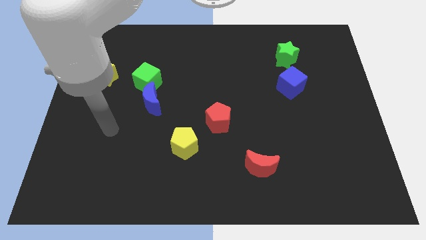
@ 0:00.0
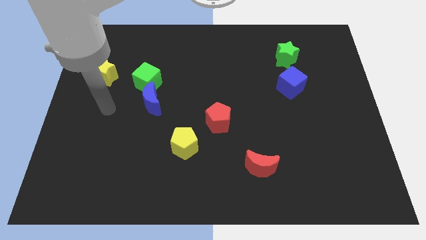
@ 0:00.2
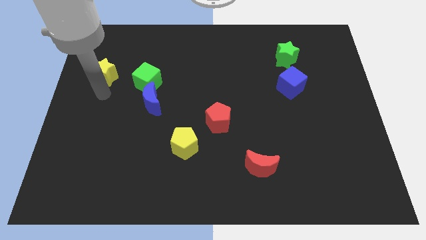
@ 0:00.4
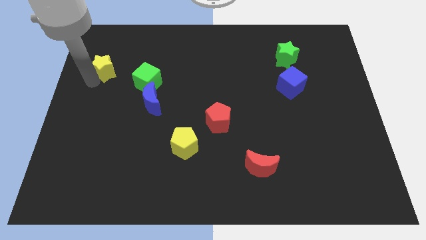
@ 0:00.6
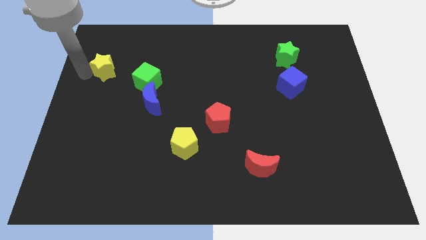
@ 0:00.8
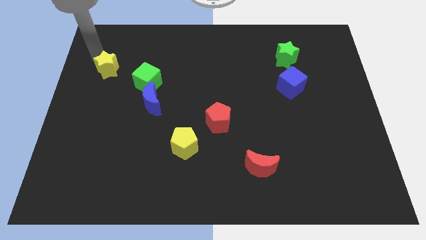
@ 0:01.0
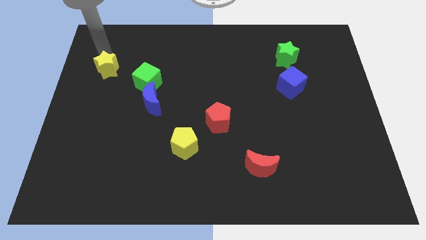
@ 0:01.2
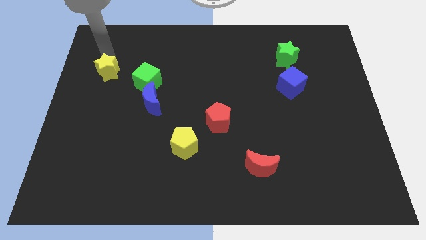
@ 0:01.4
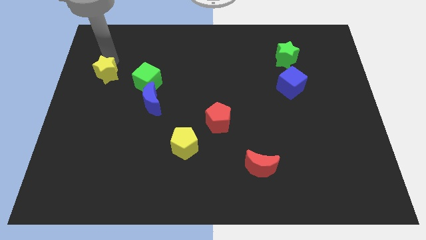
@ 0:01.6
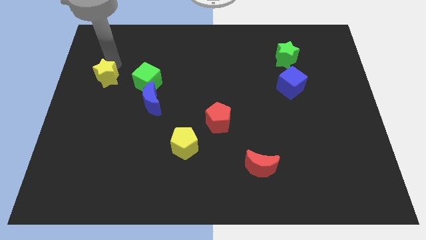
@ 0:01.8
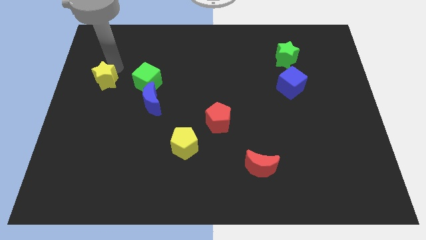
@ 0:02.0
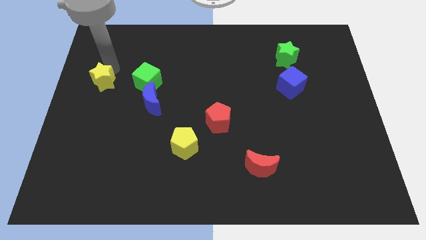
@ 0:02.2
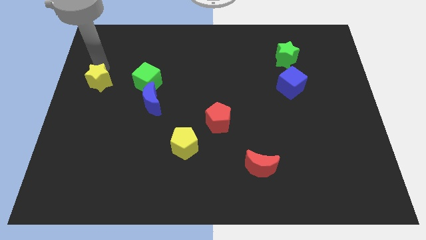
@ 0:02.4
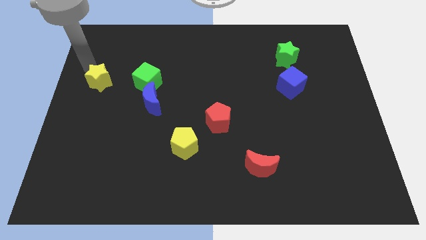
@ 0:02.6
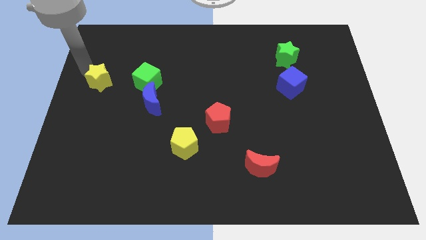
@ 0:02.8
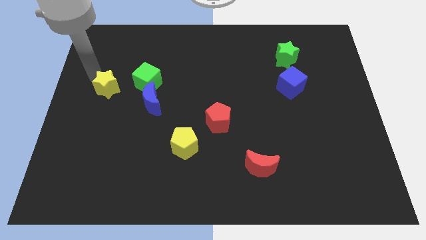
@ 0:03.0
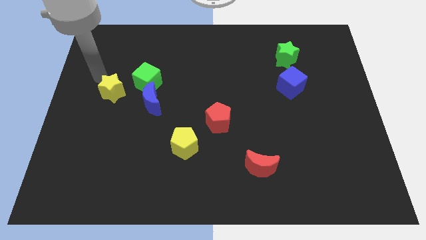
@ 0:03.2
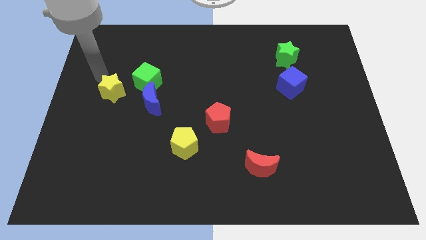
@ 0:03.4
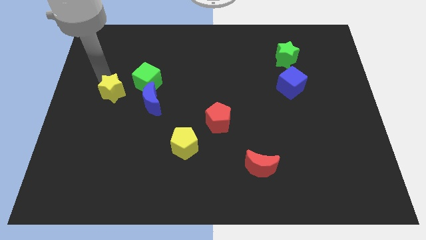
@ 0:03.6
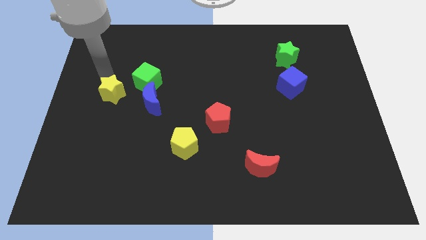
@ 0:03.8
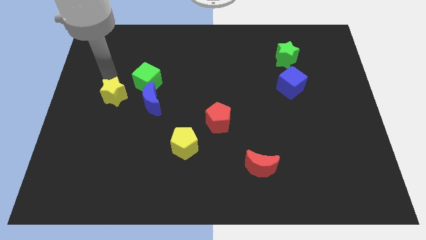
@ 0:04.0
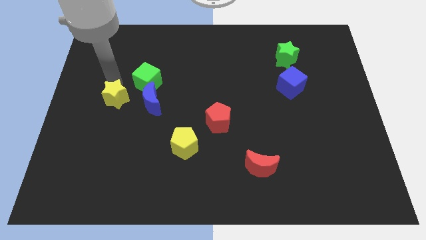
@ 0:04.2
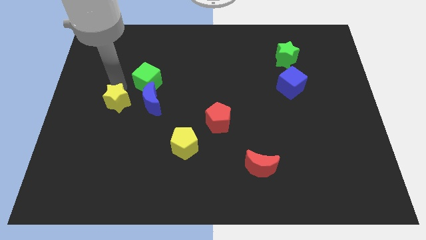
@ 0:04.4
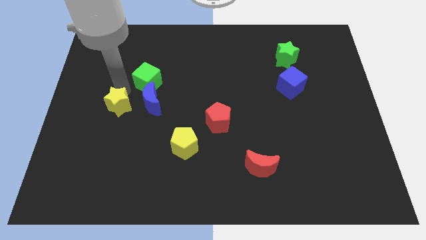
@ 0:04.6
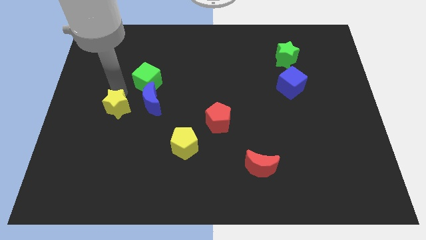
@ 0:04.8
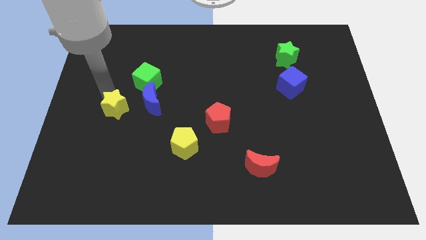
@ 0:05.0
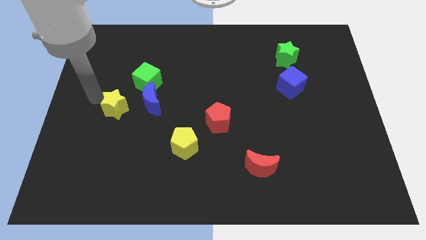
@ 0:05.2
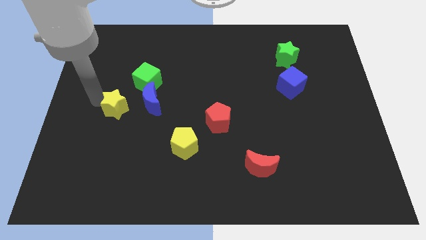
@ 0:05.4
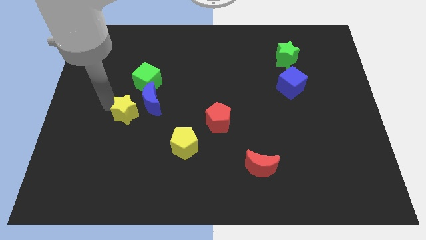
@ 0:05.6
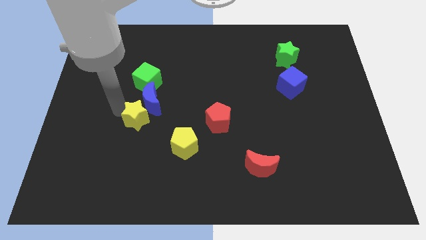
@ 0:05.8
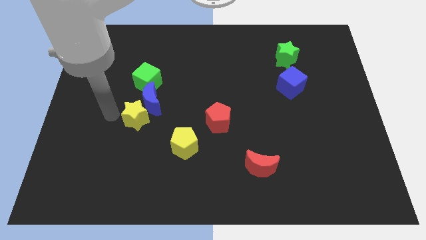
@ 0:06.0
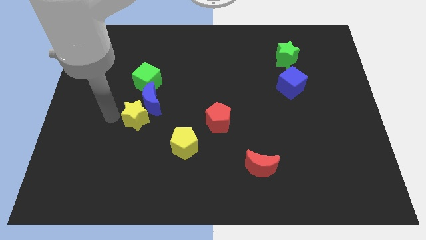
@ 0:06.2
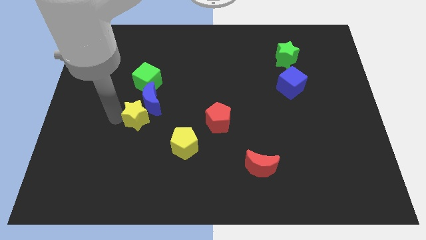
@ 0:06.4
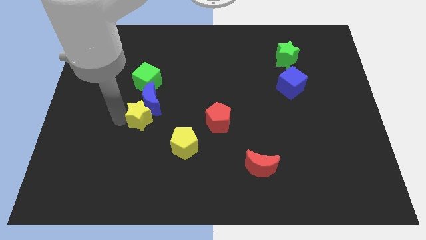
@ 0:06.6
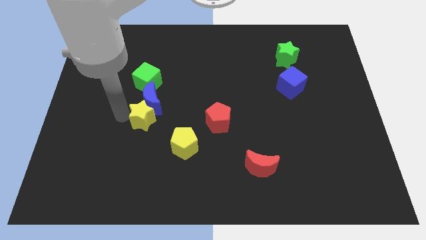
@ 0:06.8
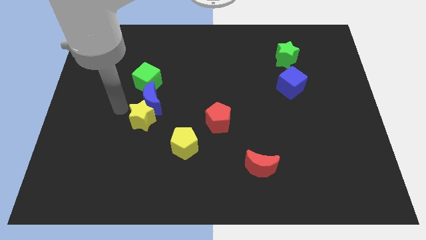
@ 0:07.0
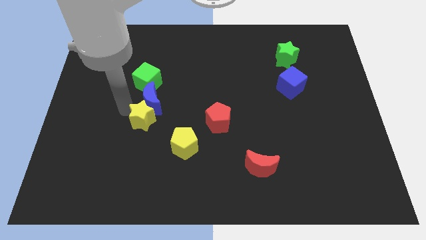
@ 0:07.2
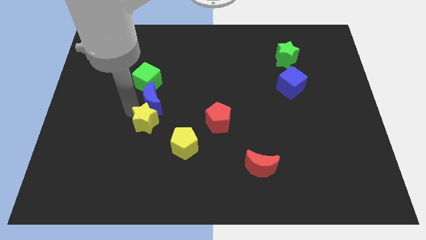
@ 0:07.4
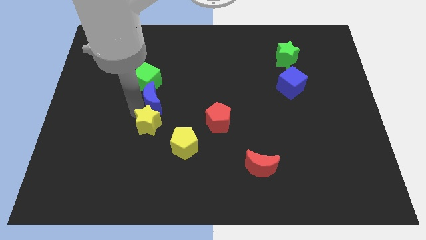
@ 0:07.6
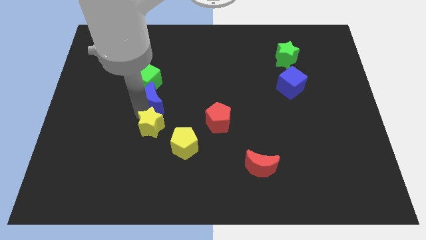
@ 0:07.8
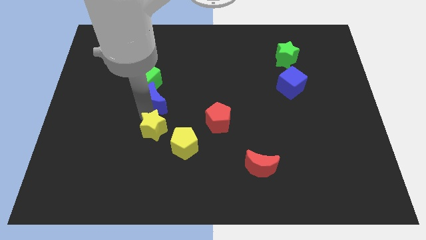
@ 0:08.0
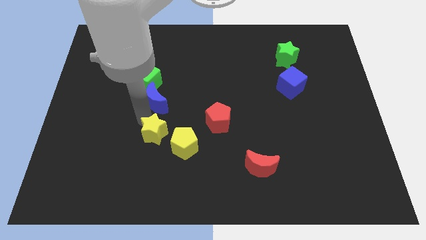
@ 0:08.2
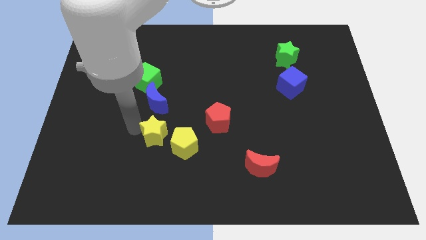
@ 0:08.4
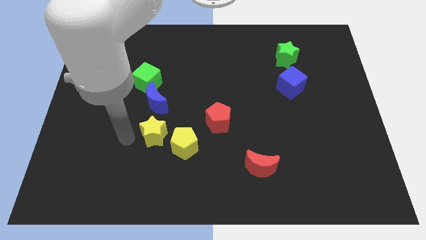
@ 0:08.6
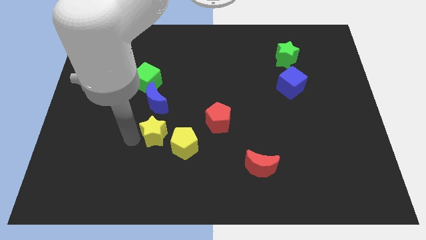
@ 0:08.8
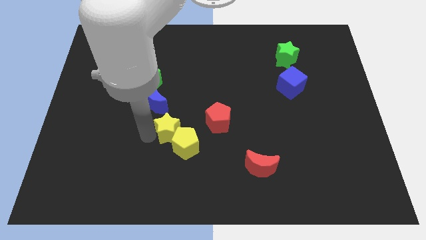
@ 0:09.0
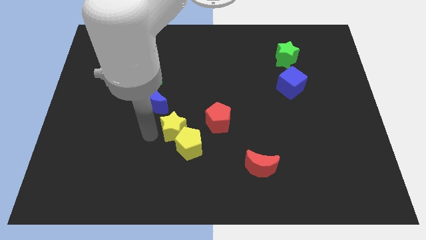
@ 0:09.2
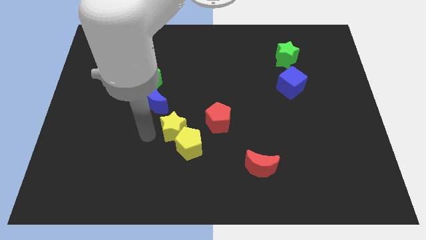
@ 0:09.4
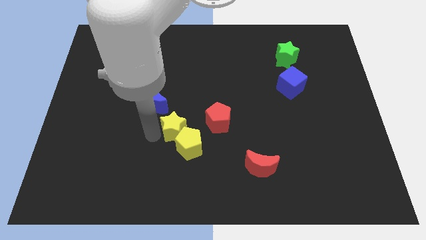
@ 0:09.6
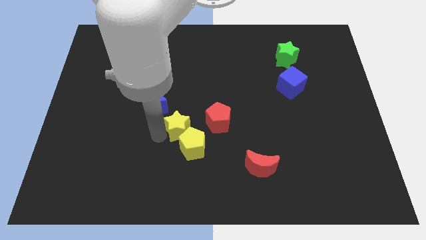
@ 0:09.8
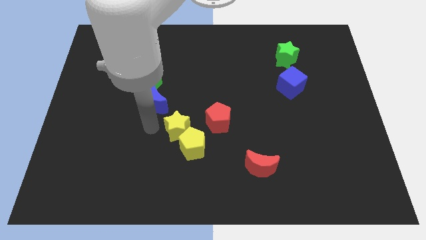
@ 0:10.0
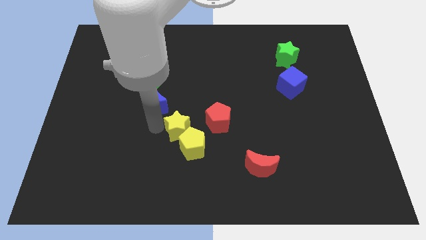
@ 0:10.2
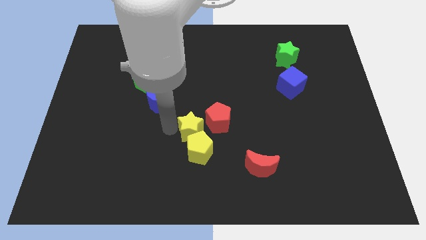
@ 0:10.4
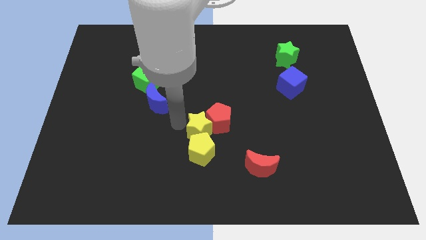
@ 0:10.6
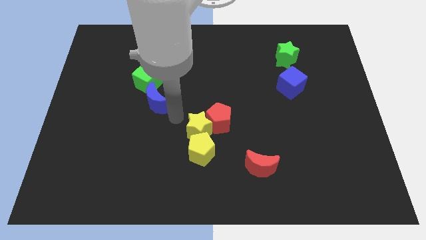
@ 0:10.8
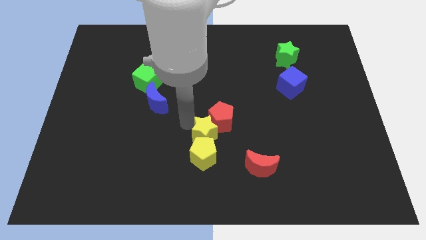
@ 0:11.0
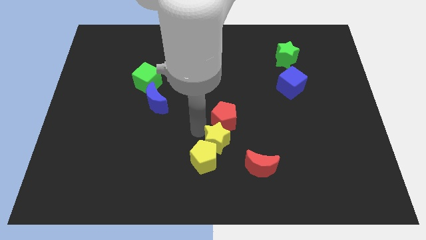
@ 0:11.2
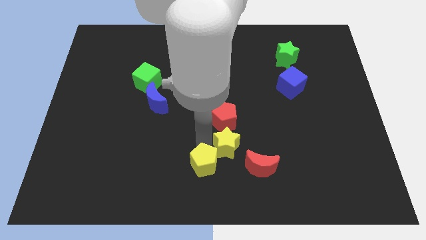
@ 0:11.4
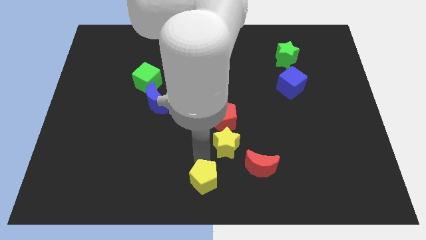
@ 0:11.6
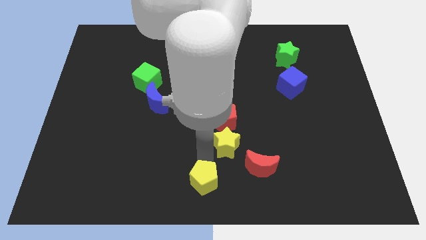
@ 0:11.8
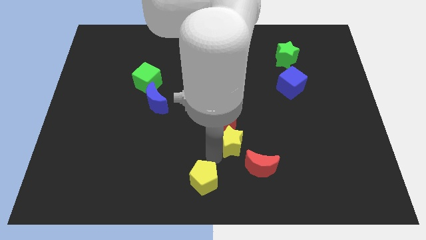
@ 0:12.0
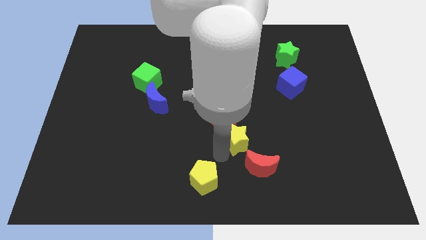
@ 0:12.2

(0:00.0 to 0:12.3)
slide the yellow star to the top of the red moon

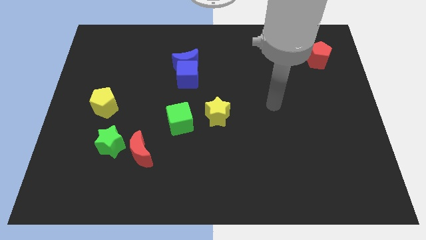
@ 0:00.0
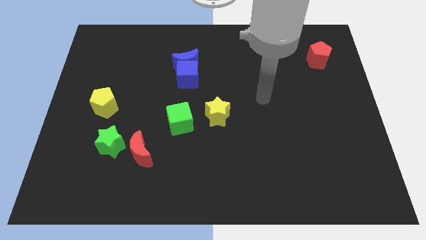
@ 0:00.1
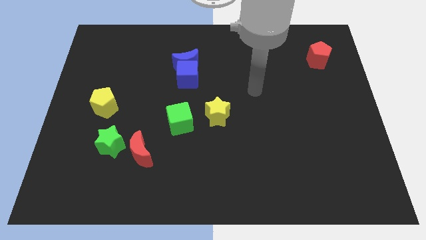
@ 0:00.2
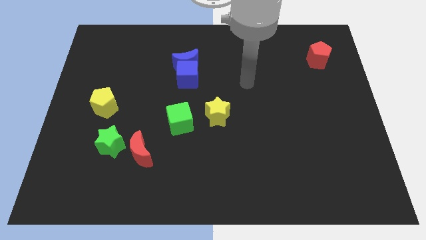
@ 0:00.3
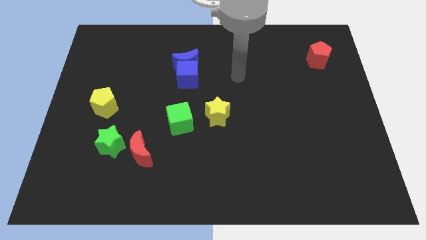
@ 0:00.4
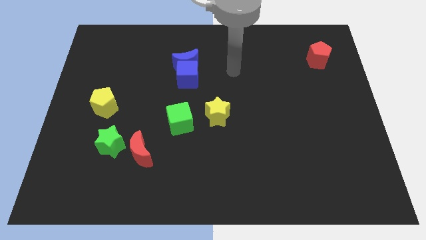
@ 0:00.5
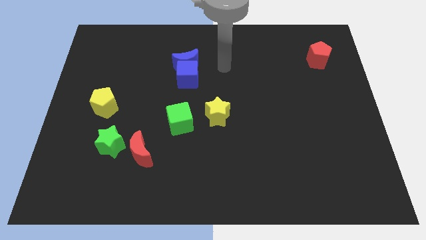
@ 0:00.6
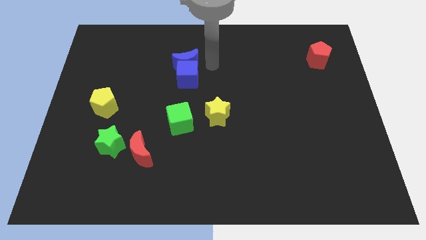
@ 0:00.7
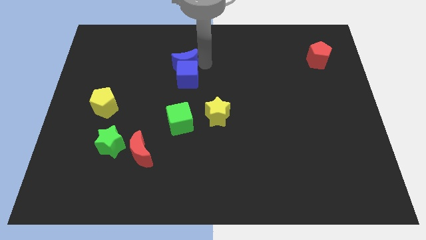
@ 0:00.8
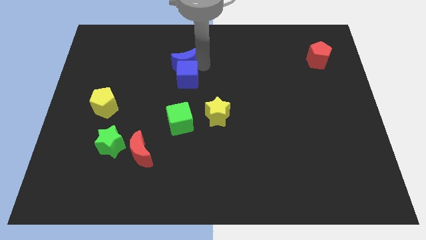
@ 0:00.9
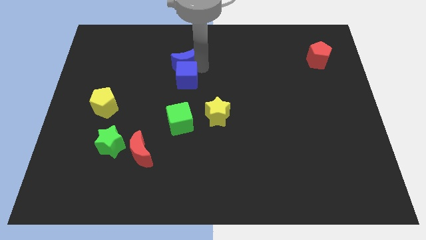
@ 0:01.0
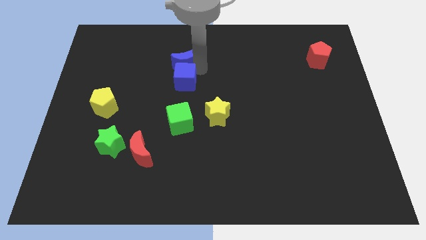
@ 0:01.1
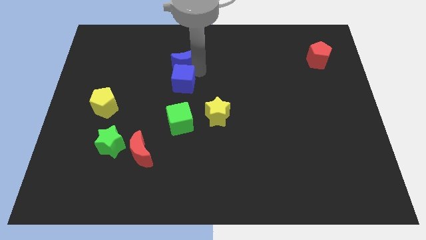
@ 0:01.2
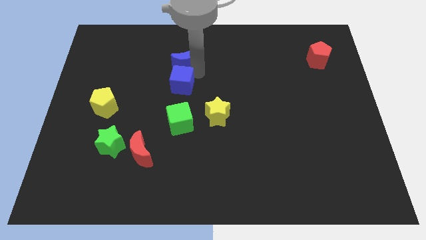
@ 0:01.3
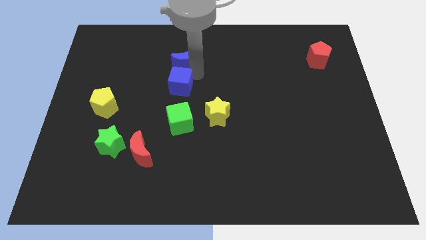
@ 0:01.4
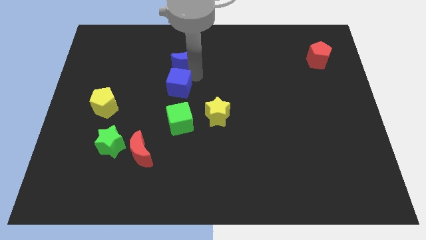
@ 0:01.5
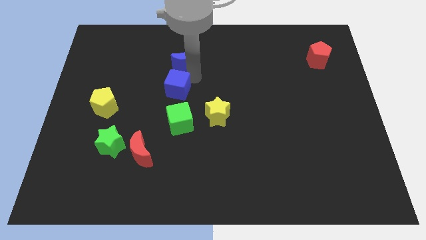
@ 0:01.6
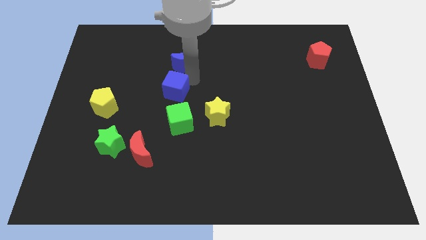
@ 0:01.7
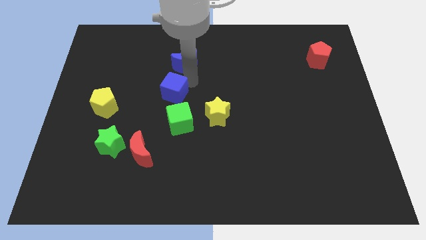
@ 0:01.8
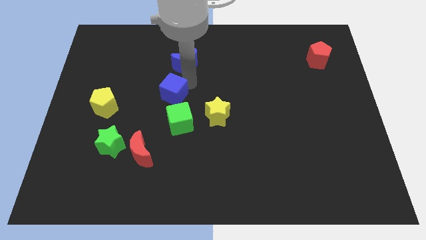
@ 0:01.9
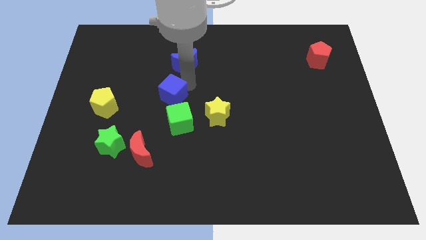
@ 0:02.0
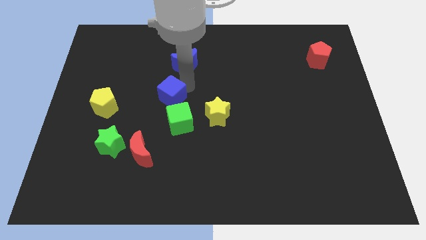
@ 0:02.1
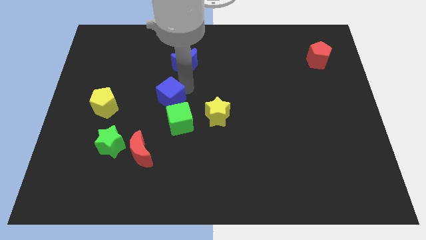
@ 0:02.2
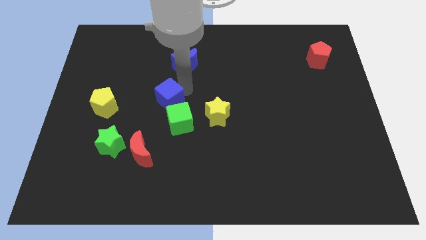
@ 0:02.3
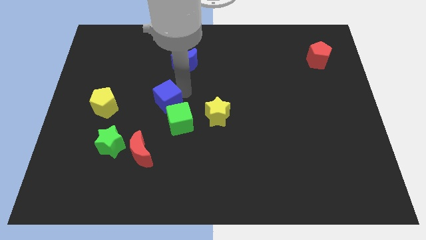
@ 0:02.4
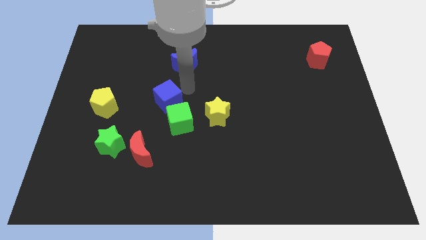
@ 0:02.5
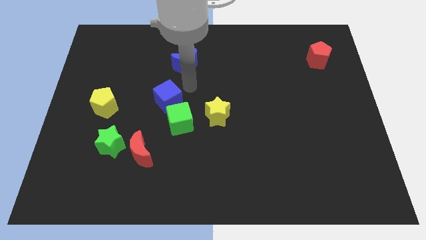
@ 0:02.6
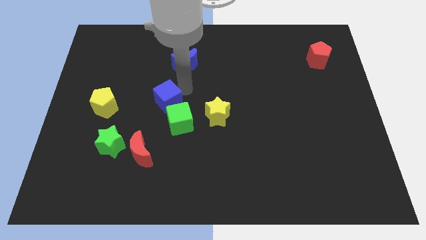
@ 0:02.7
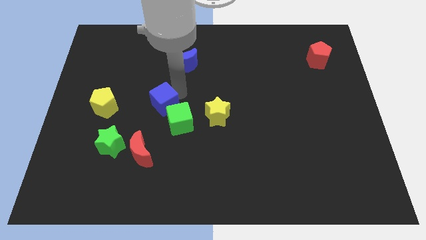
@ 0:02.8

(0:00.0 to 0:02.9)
push the blue cube to the top side of the red moon
